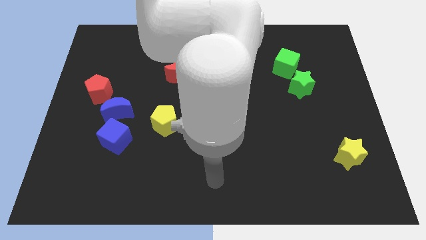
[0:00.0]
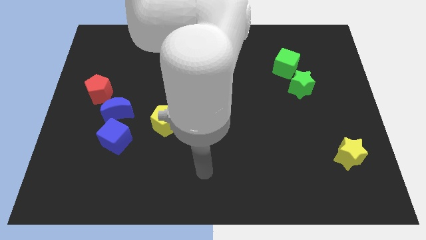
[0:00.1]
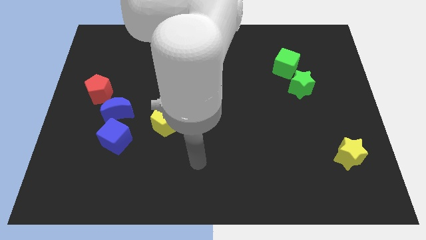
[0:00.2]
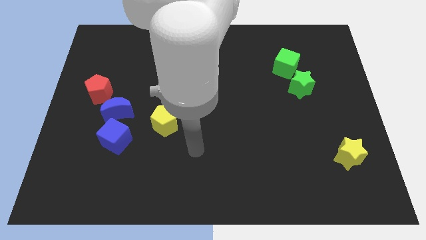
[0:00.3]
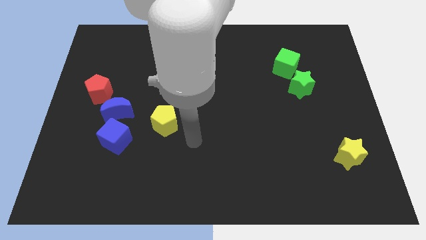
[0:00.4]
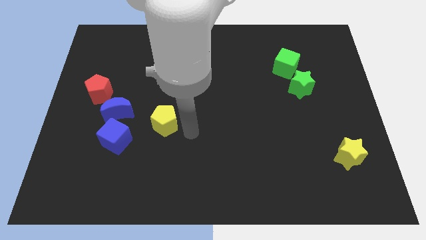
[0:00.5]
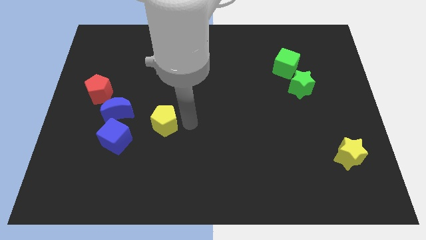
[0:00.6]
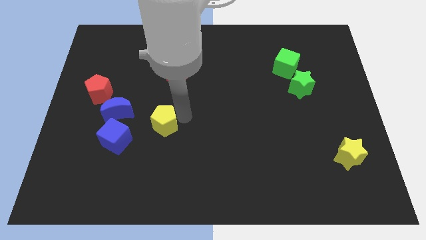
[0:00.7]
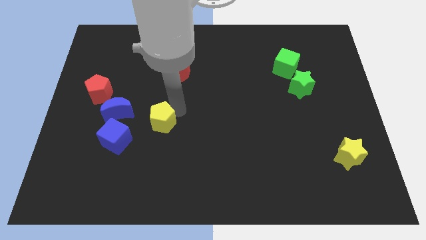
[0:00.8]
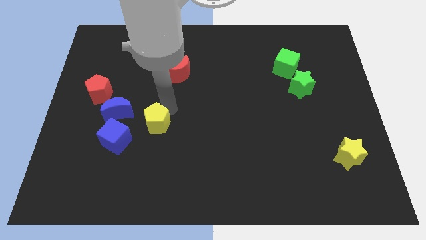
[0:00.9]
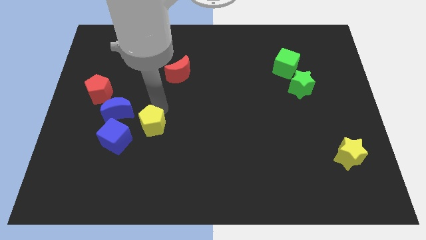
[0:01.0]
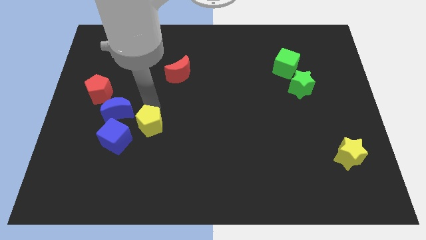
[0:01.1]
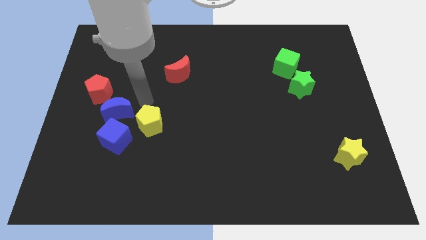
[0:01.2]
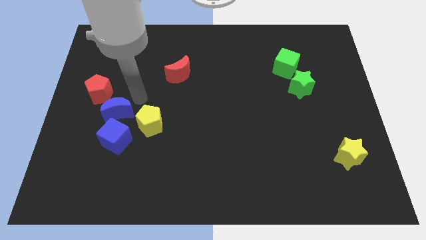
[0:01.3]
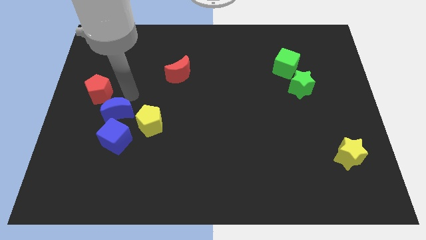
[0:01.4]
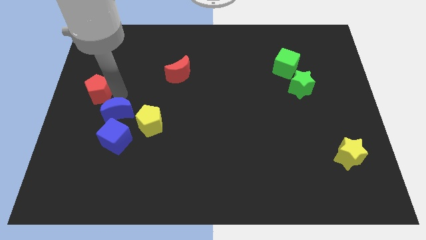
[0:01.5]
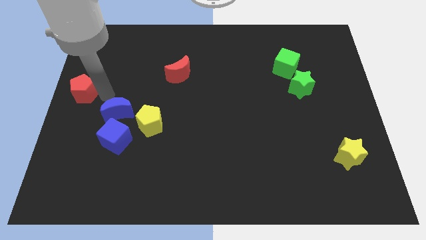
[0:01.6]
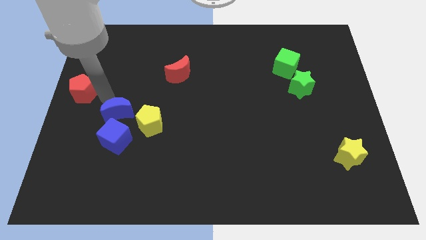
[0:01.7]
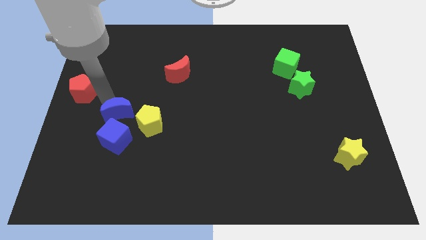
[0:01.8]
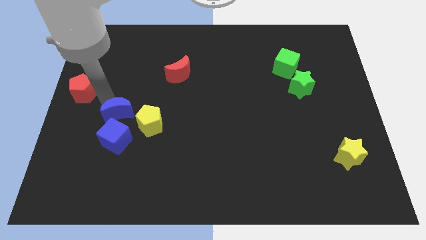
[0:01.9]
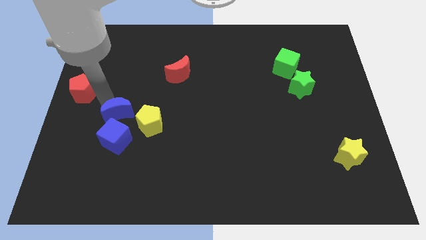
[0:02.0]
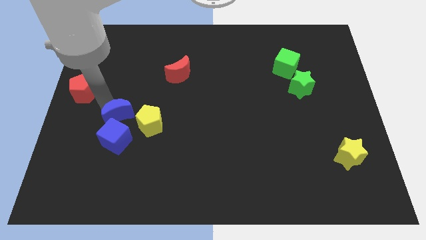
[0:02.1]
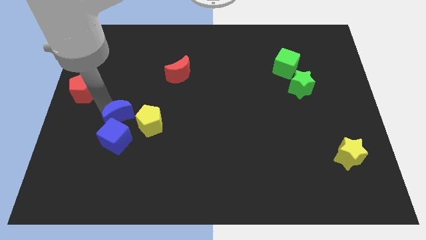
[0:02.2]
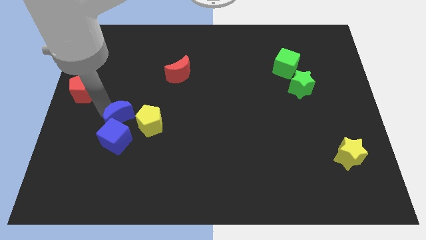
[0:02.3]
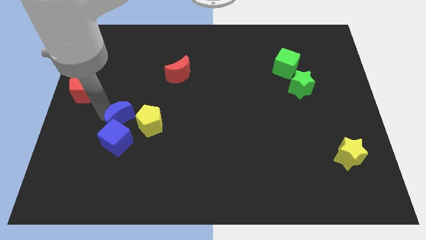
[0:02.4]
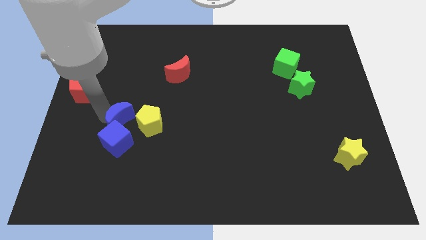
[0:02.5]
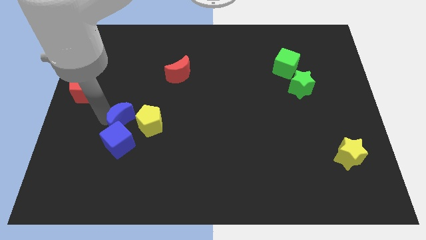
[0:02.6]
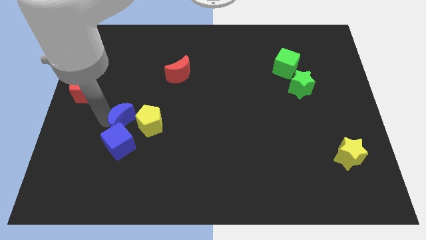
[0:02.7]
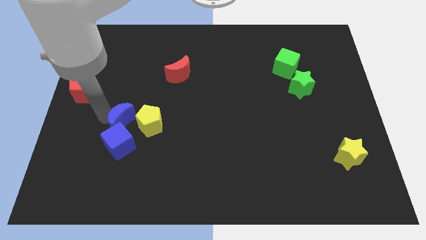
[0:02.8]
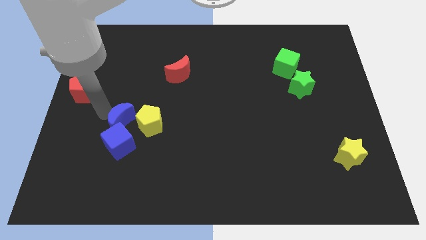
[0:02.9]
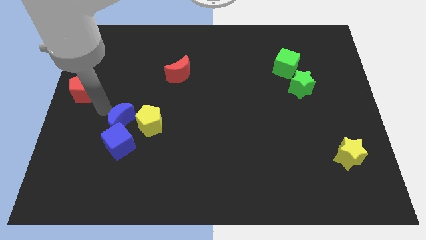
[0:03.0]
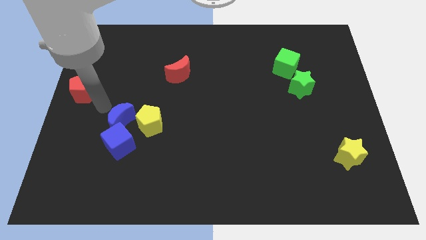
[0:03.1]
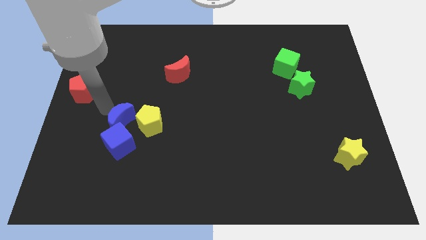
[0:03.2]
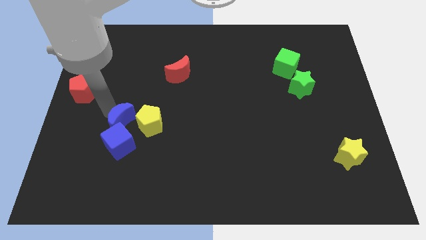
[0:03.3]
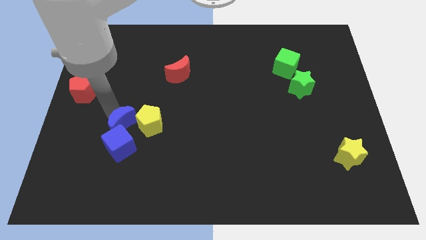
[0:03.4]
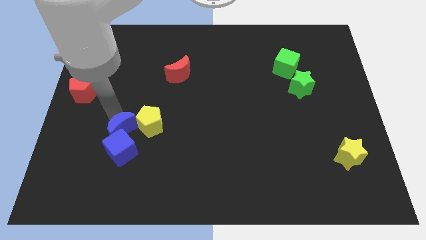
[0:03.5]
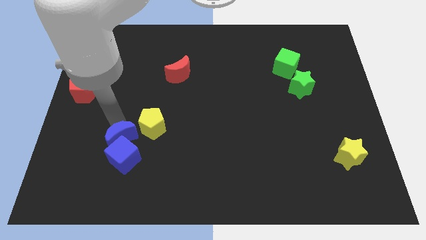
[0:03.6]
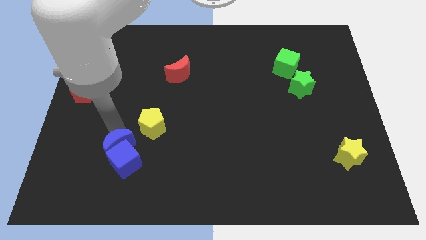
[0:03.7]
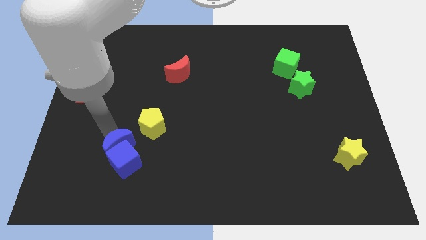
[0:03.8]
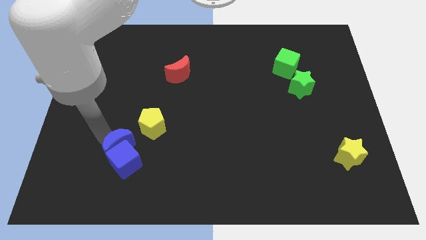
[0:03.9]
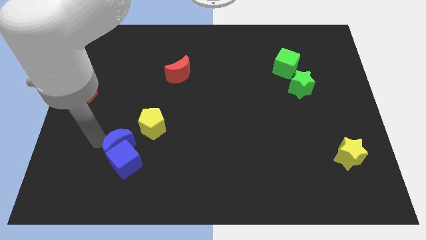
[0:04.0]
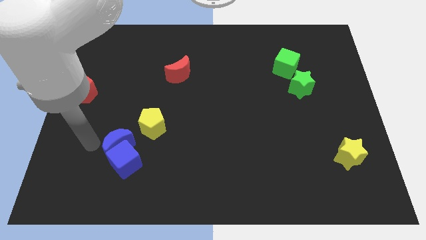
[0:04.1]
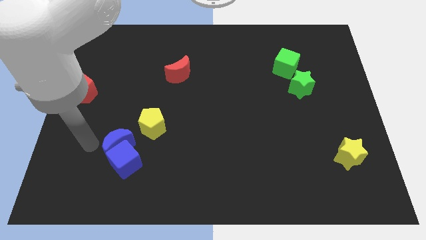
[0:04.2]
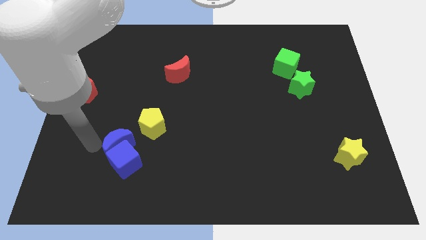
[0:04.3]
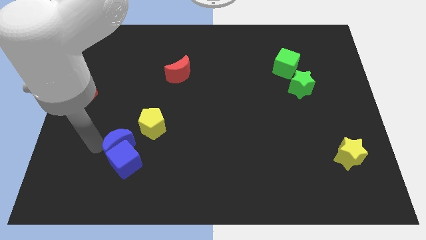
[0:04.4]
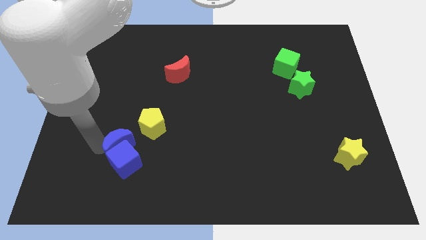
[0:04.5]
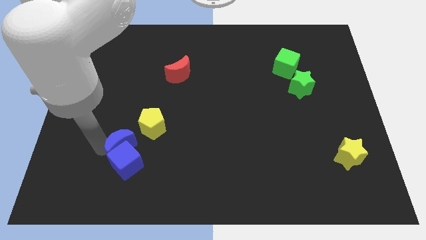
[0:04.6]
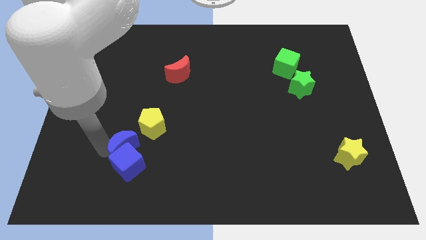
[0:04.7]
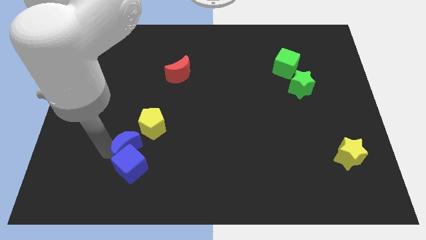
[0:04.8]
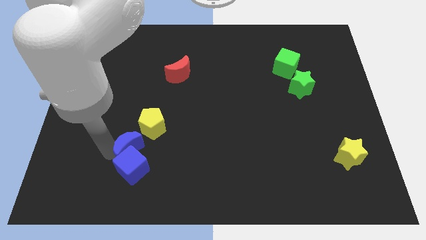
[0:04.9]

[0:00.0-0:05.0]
move the blue moon to the bottom of the yellow pentagon
